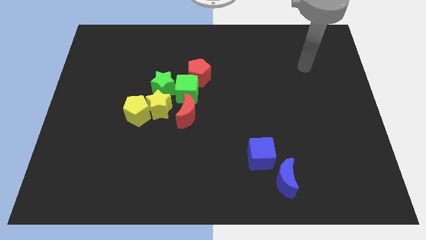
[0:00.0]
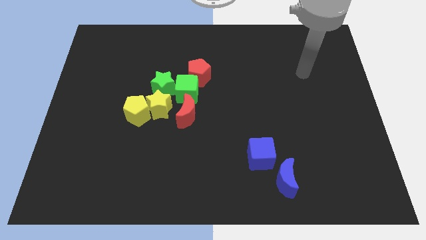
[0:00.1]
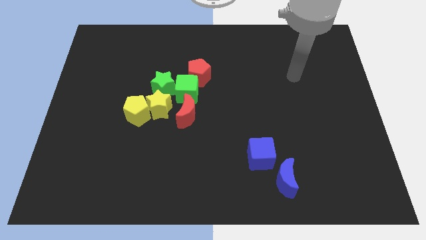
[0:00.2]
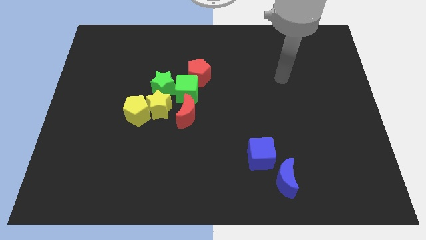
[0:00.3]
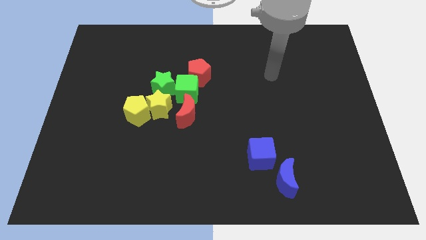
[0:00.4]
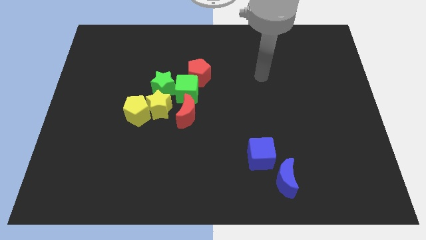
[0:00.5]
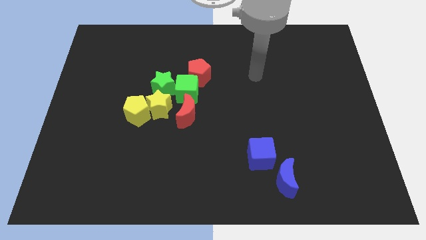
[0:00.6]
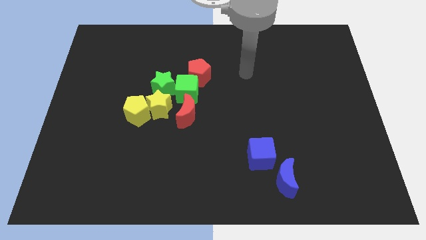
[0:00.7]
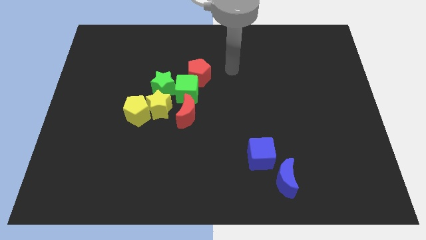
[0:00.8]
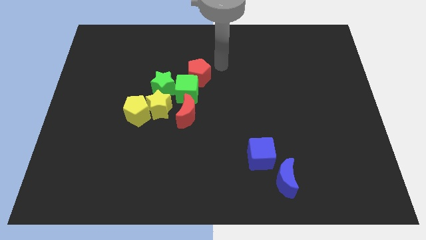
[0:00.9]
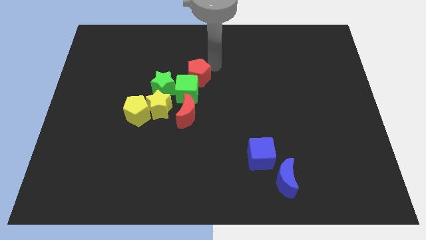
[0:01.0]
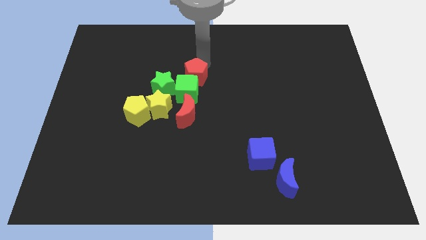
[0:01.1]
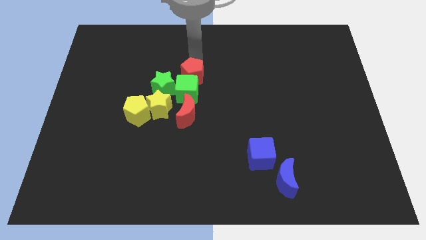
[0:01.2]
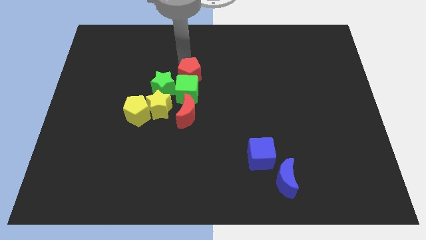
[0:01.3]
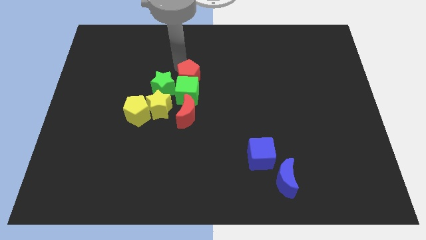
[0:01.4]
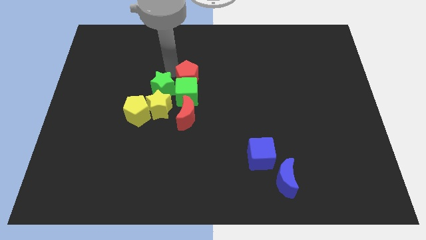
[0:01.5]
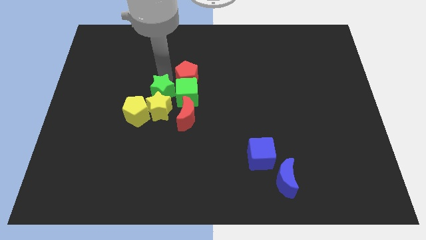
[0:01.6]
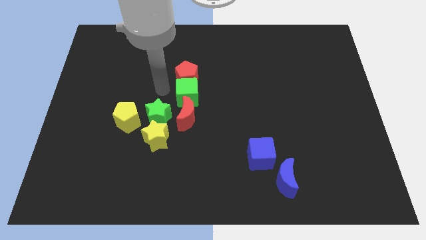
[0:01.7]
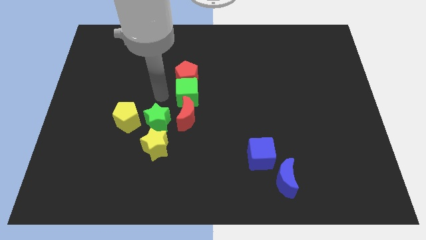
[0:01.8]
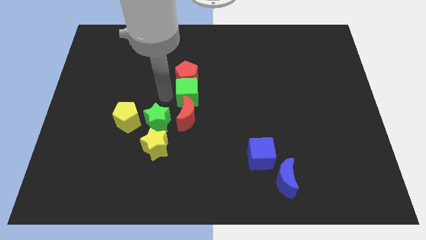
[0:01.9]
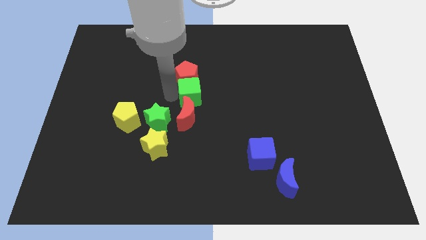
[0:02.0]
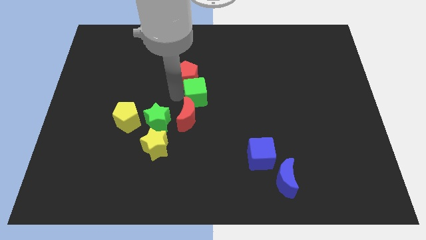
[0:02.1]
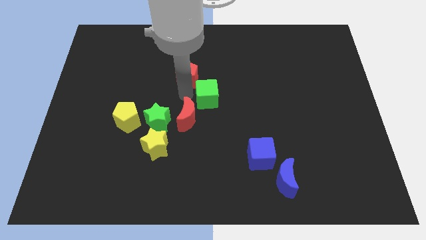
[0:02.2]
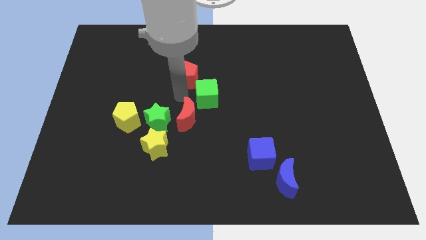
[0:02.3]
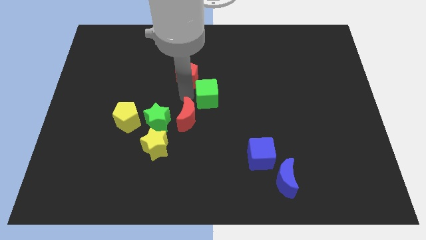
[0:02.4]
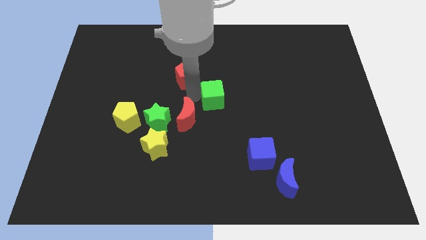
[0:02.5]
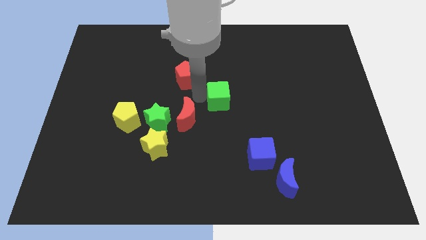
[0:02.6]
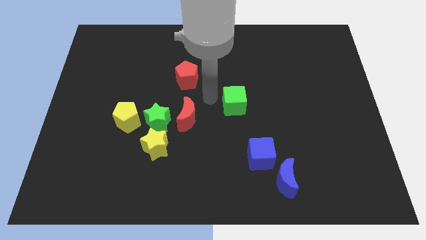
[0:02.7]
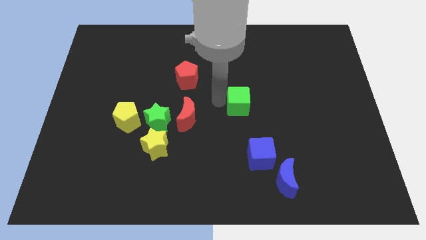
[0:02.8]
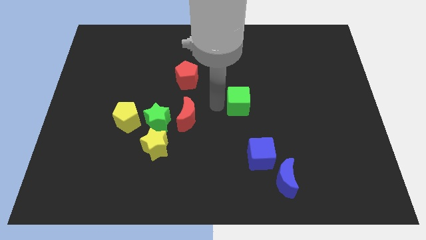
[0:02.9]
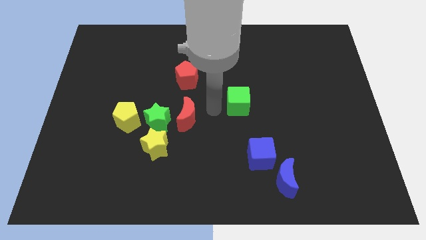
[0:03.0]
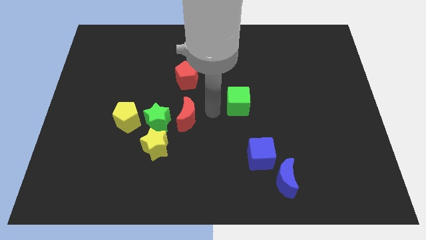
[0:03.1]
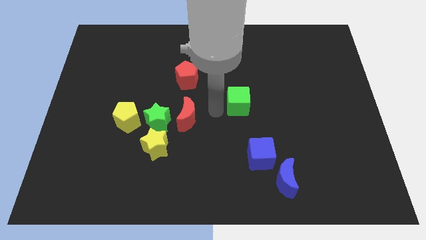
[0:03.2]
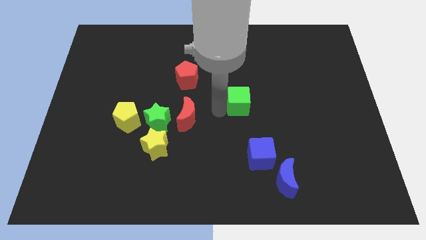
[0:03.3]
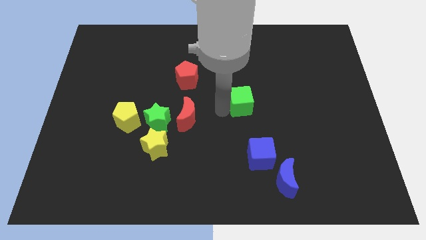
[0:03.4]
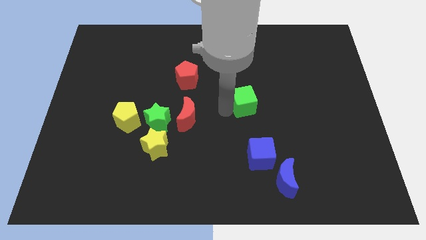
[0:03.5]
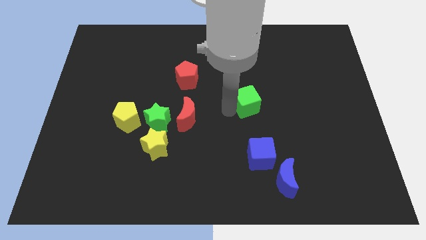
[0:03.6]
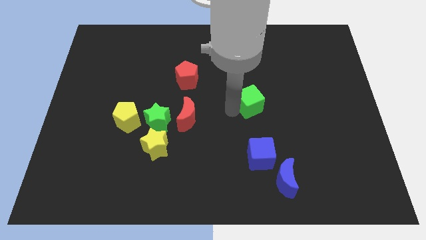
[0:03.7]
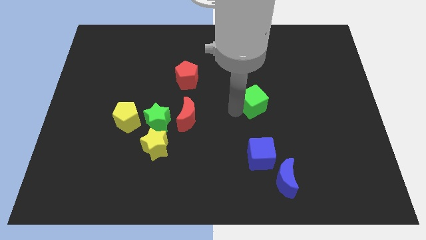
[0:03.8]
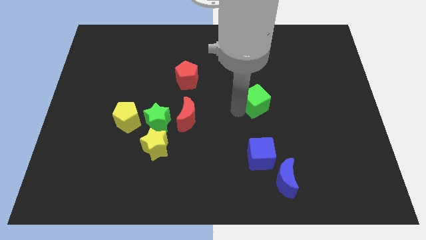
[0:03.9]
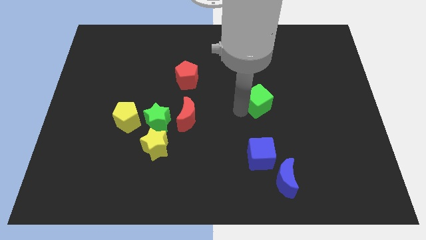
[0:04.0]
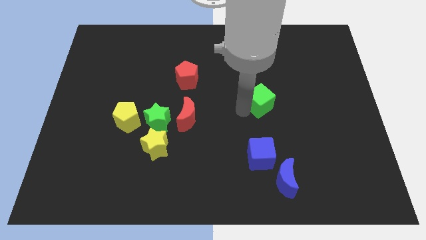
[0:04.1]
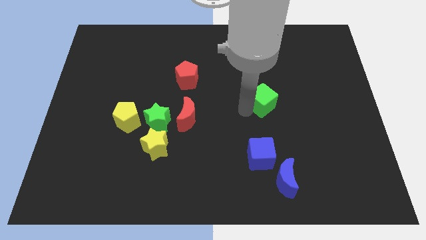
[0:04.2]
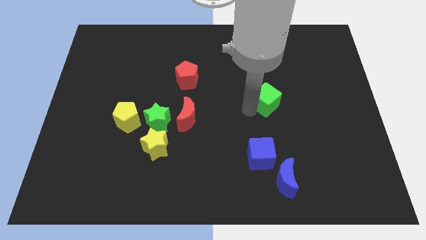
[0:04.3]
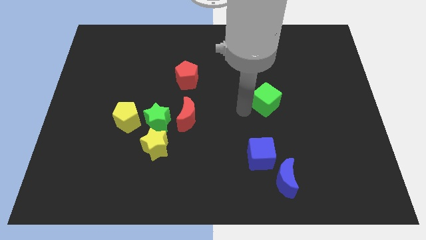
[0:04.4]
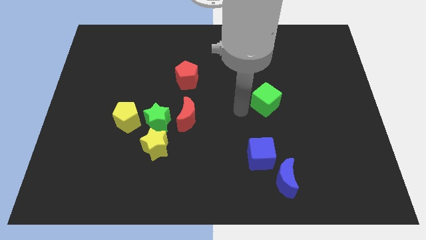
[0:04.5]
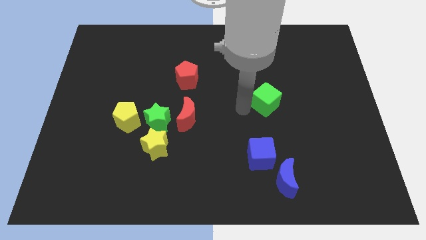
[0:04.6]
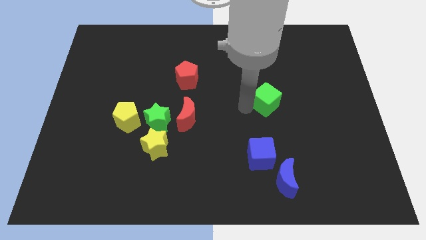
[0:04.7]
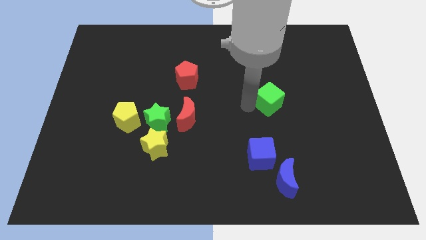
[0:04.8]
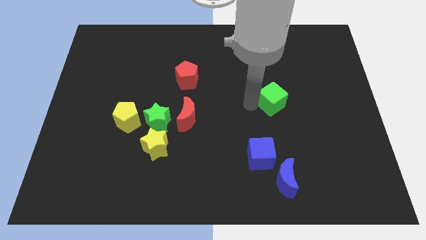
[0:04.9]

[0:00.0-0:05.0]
move the green cube to the right

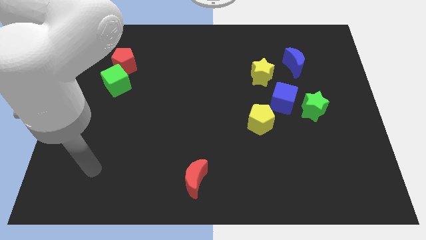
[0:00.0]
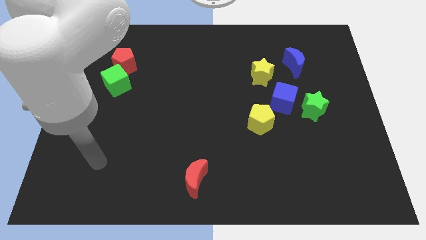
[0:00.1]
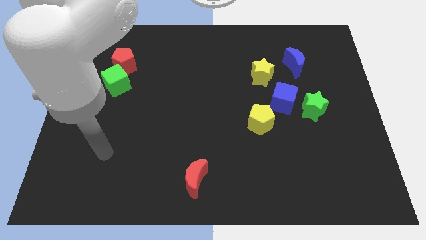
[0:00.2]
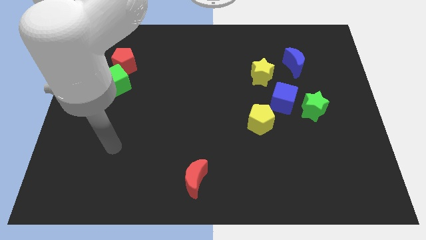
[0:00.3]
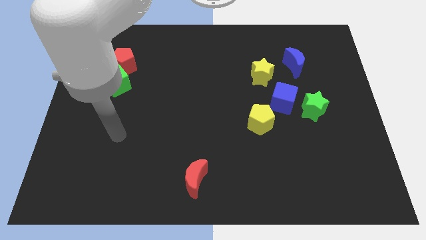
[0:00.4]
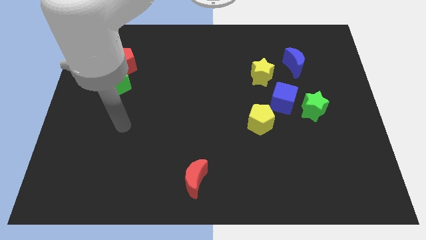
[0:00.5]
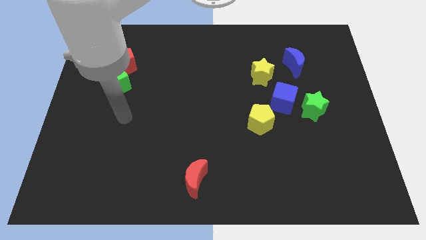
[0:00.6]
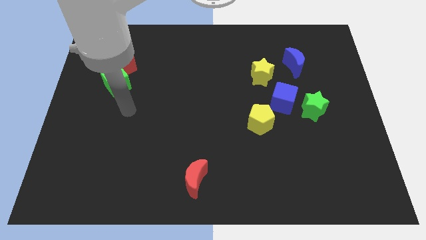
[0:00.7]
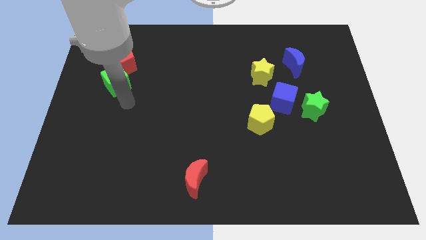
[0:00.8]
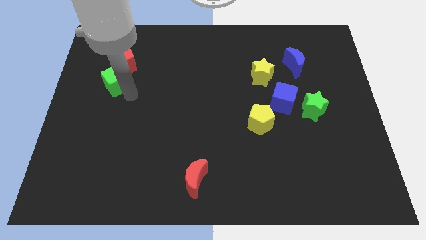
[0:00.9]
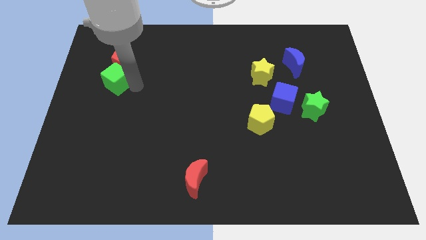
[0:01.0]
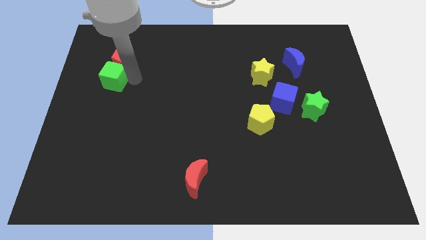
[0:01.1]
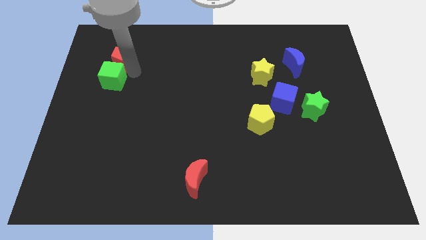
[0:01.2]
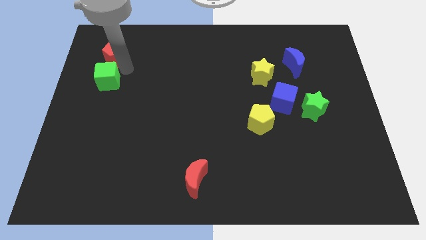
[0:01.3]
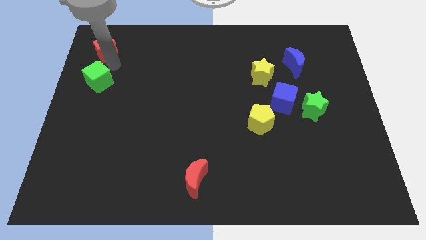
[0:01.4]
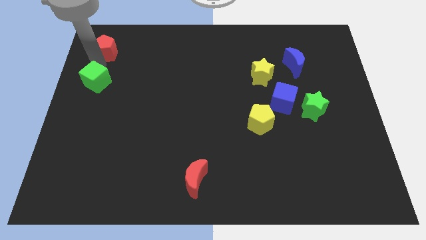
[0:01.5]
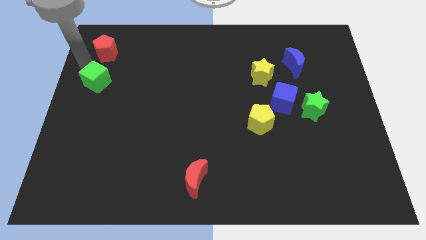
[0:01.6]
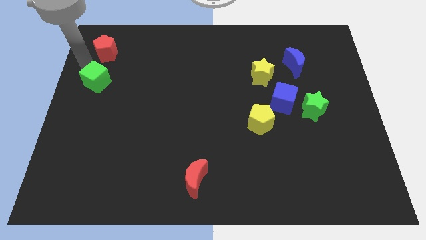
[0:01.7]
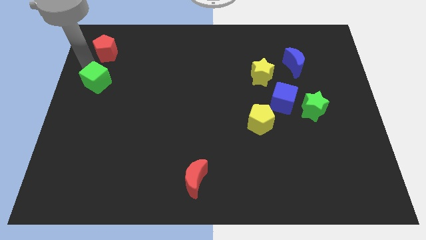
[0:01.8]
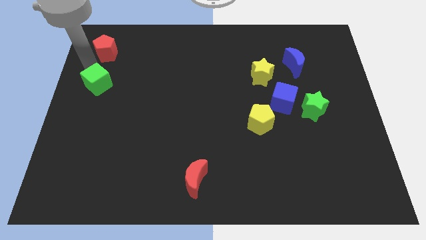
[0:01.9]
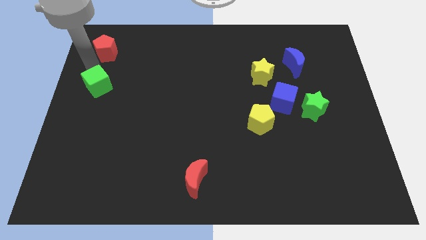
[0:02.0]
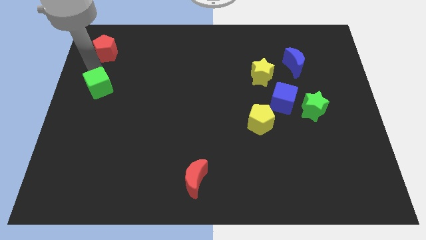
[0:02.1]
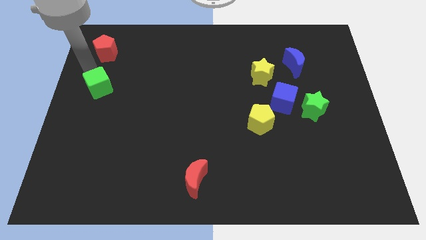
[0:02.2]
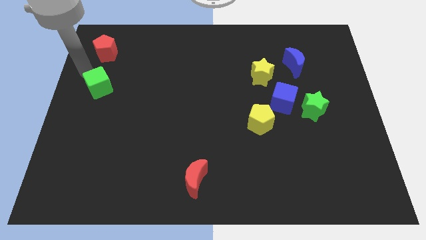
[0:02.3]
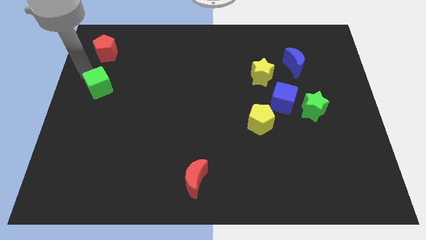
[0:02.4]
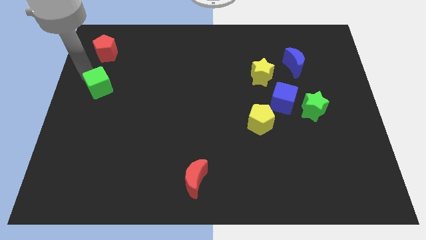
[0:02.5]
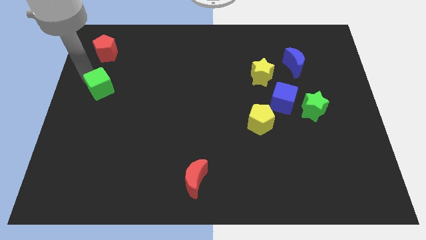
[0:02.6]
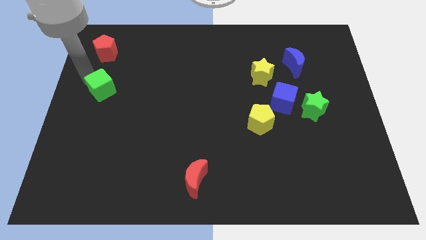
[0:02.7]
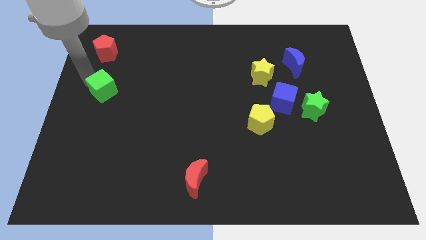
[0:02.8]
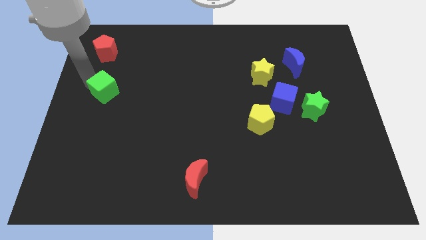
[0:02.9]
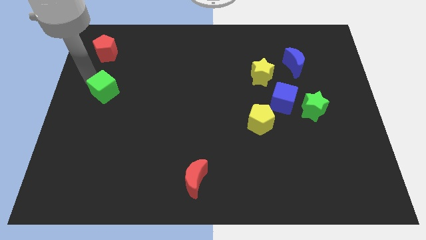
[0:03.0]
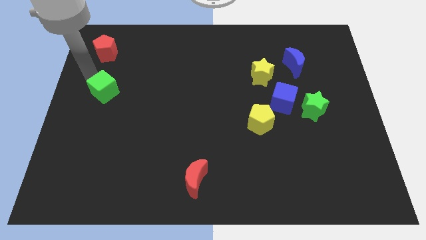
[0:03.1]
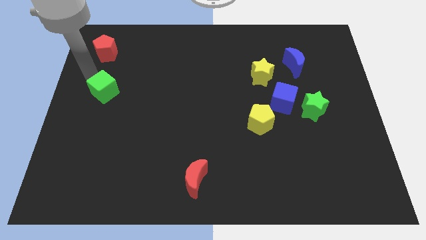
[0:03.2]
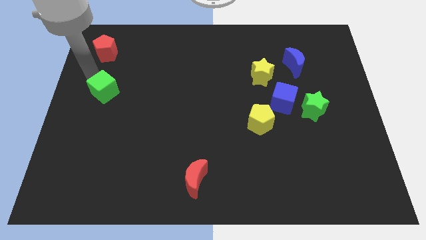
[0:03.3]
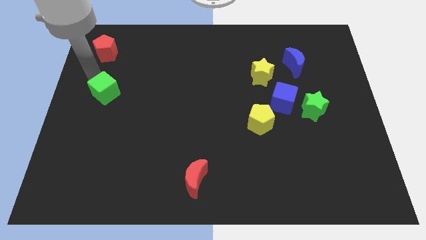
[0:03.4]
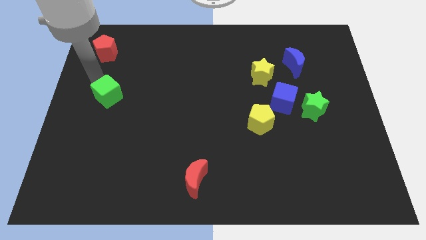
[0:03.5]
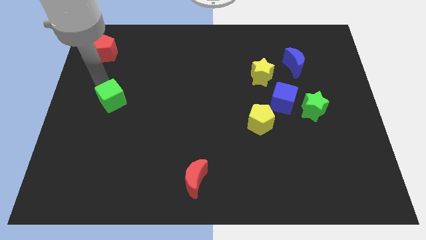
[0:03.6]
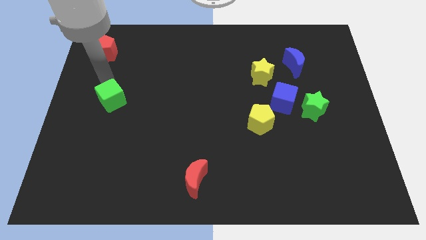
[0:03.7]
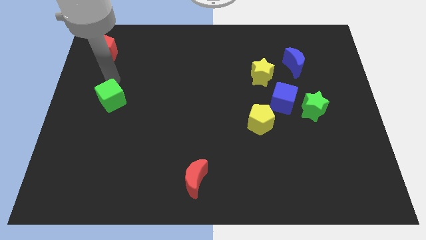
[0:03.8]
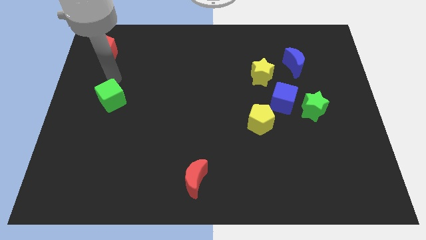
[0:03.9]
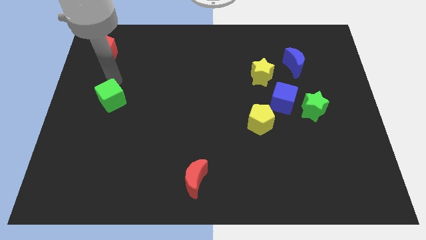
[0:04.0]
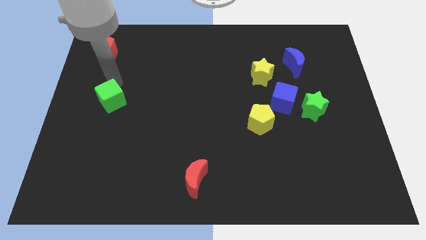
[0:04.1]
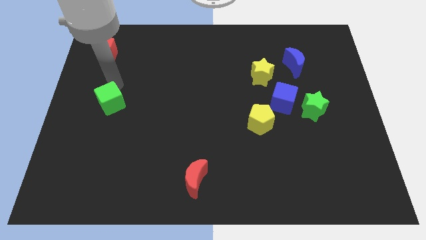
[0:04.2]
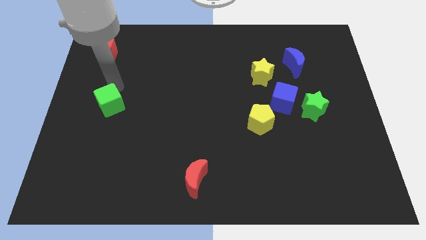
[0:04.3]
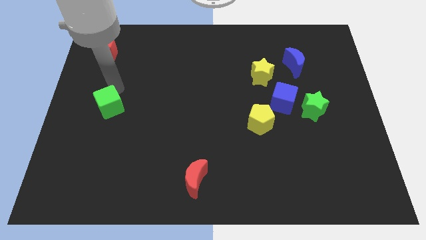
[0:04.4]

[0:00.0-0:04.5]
move the green cube down a bit
